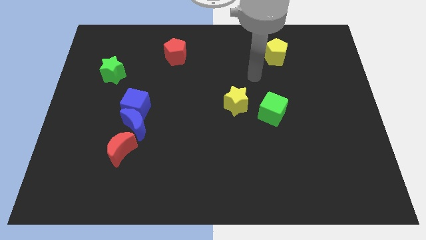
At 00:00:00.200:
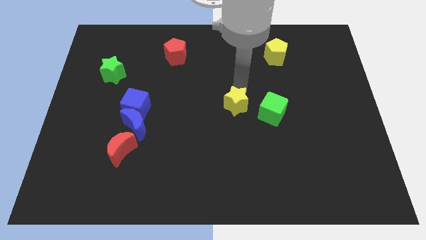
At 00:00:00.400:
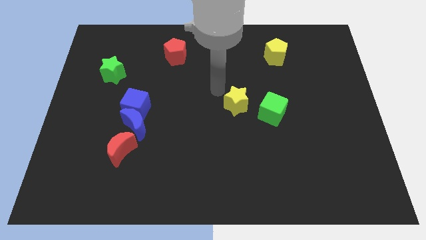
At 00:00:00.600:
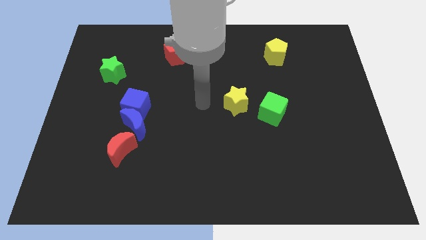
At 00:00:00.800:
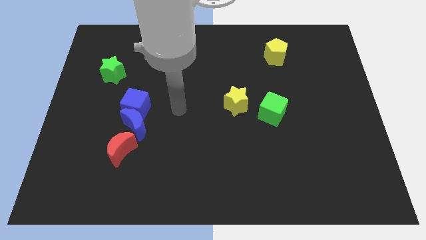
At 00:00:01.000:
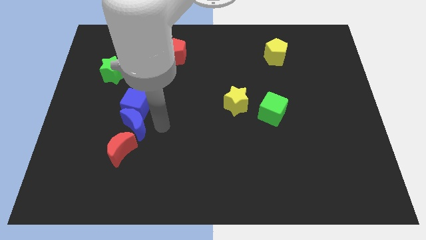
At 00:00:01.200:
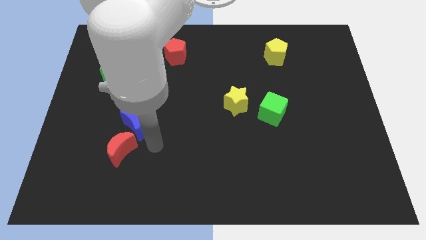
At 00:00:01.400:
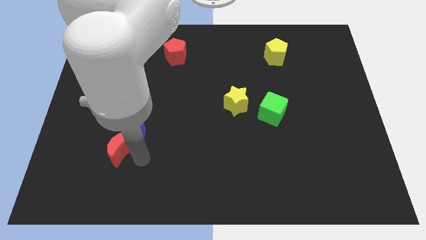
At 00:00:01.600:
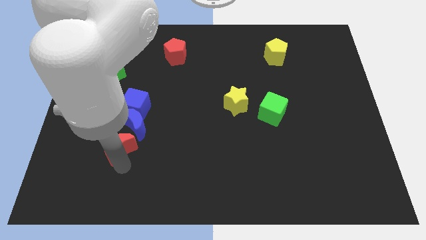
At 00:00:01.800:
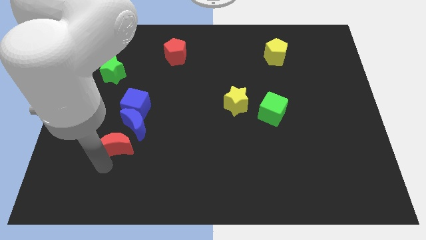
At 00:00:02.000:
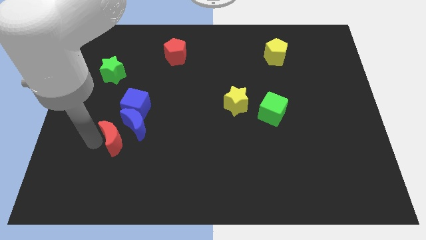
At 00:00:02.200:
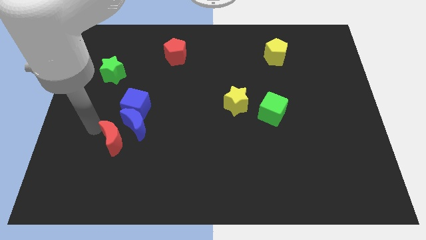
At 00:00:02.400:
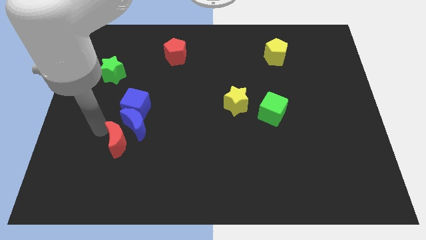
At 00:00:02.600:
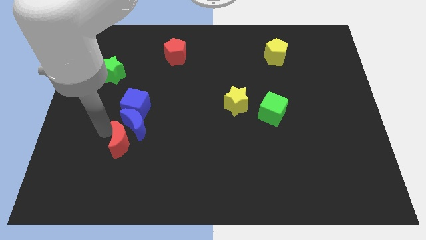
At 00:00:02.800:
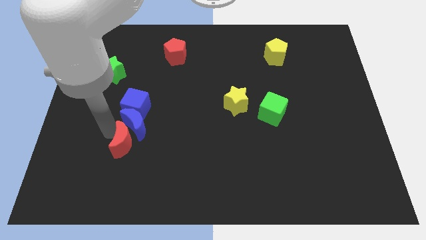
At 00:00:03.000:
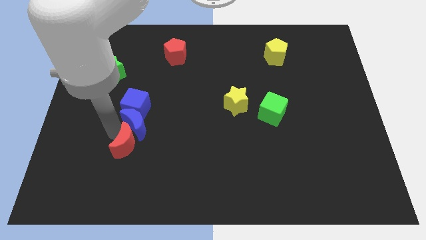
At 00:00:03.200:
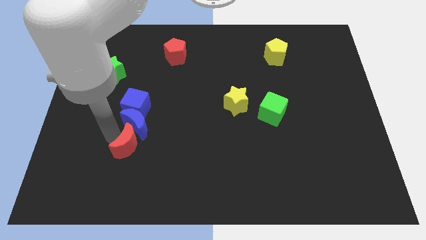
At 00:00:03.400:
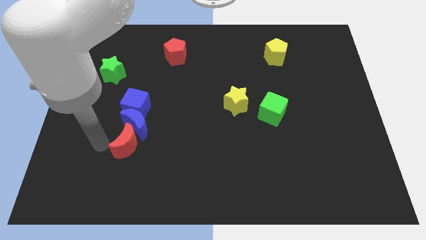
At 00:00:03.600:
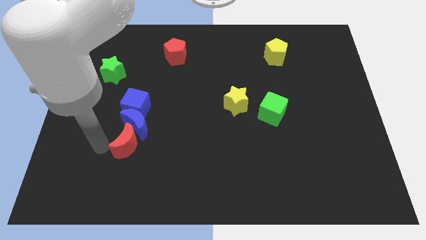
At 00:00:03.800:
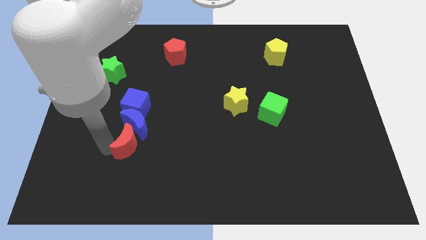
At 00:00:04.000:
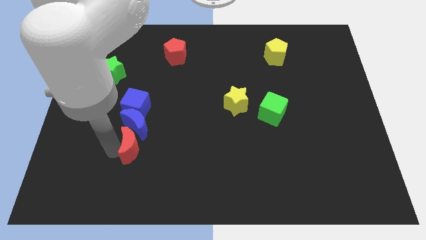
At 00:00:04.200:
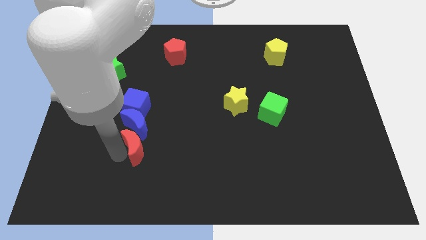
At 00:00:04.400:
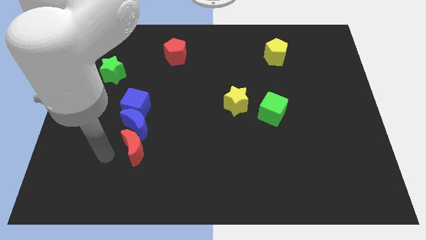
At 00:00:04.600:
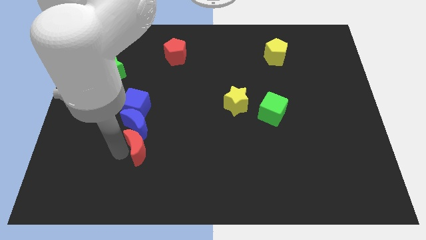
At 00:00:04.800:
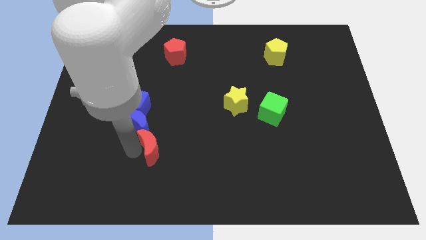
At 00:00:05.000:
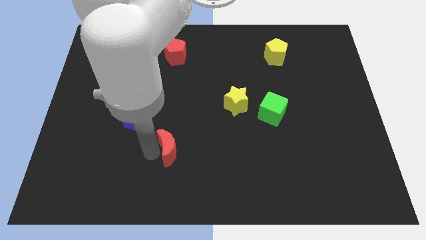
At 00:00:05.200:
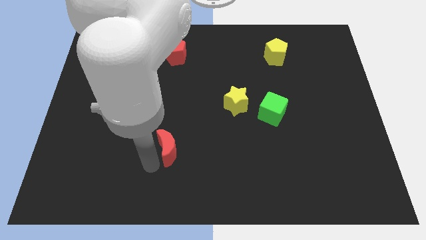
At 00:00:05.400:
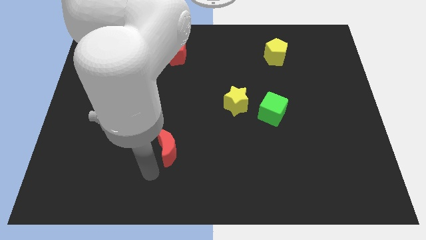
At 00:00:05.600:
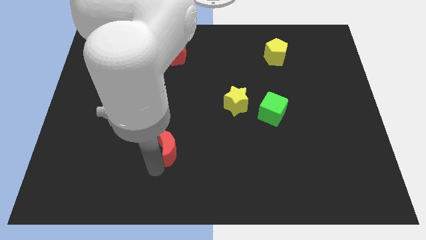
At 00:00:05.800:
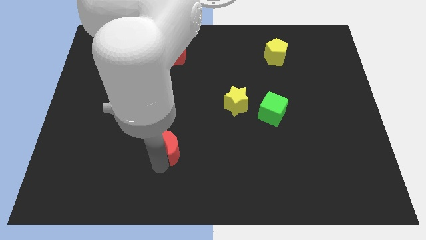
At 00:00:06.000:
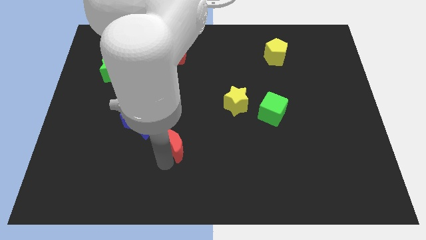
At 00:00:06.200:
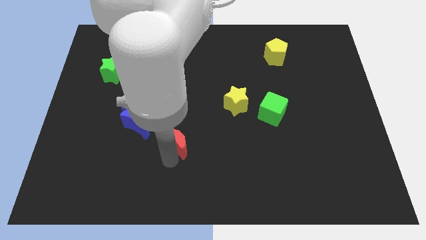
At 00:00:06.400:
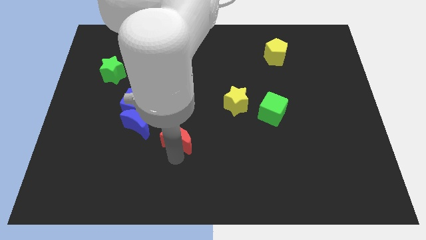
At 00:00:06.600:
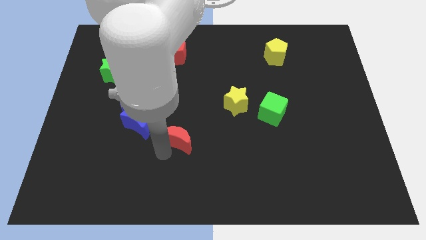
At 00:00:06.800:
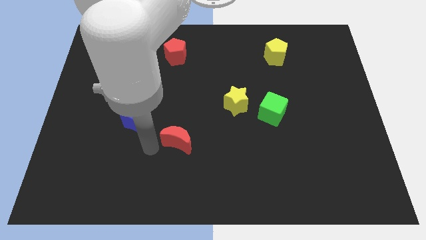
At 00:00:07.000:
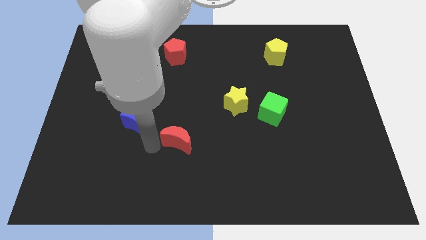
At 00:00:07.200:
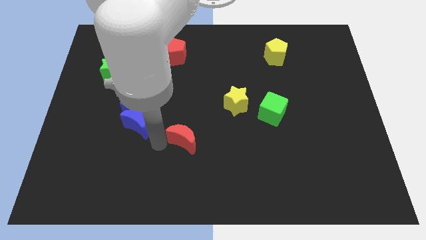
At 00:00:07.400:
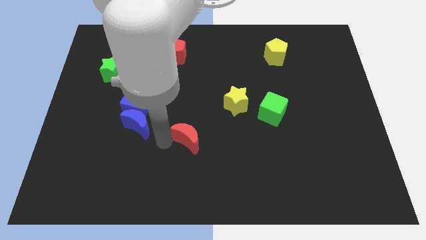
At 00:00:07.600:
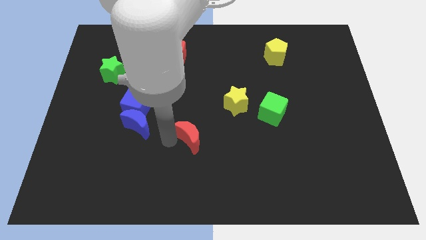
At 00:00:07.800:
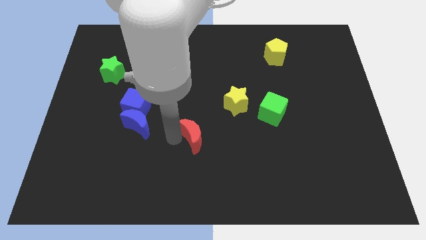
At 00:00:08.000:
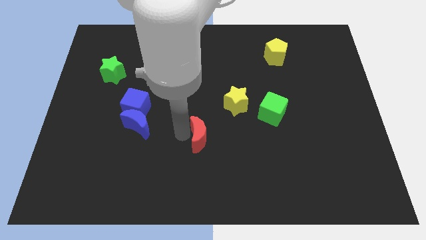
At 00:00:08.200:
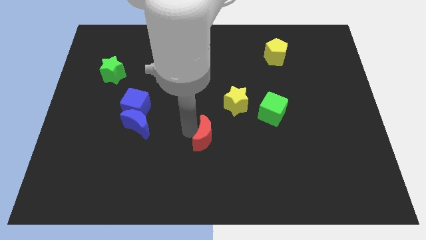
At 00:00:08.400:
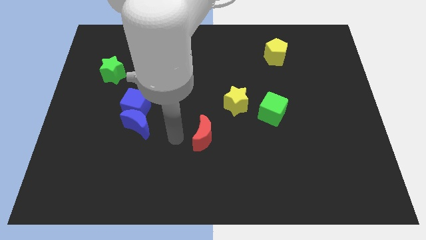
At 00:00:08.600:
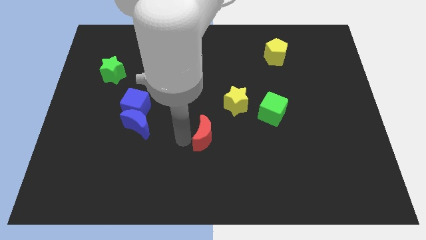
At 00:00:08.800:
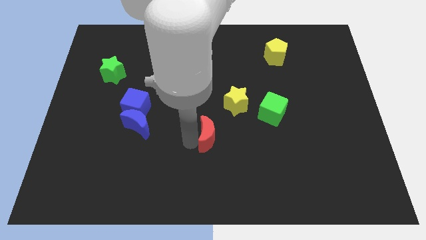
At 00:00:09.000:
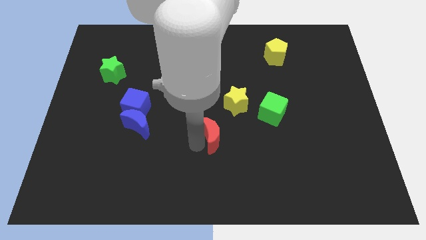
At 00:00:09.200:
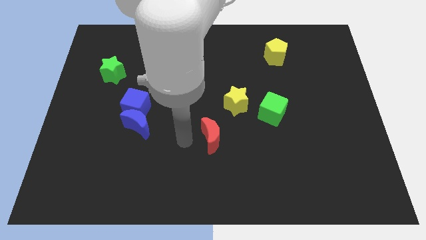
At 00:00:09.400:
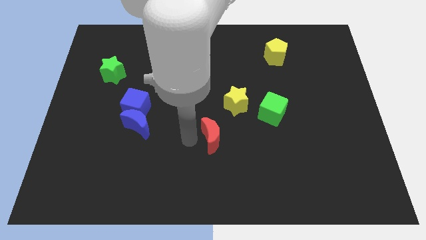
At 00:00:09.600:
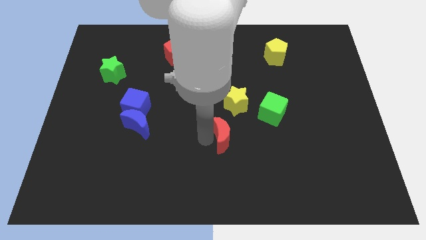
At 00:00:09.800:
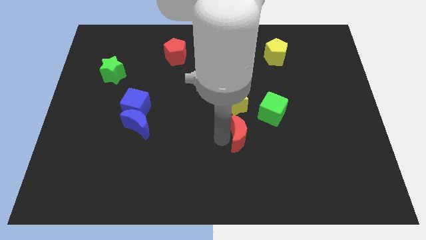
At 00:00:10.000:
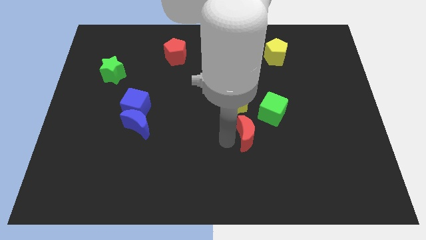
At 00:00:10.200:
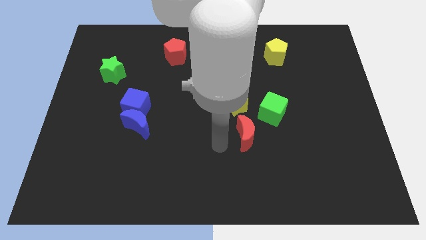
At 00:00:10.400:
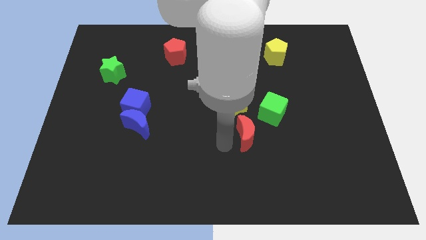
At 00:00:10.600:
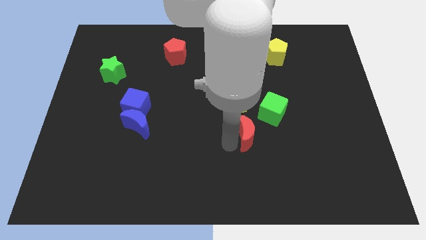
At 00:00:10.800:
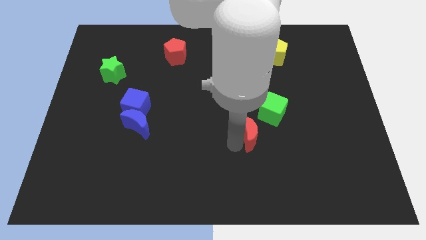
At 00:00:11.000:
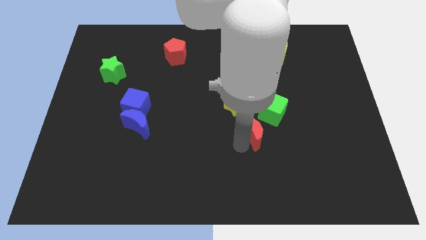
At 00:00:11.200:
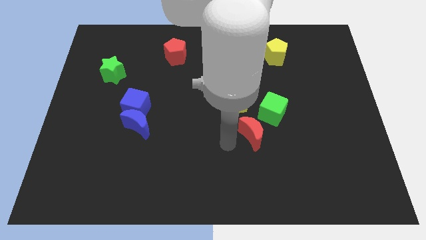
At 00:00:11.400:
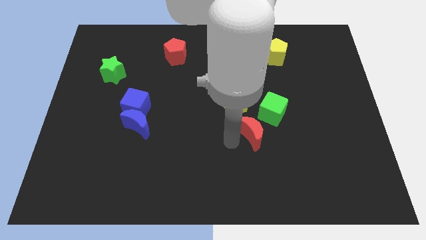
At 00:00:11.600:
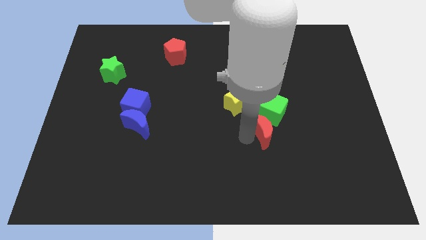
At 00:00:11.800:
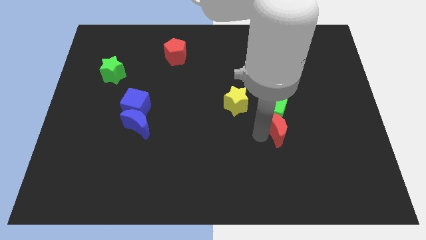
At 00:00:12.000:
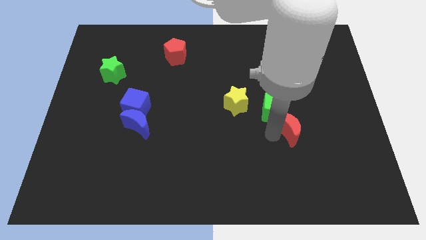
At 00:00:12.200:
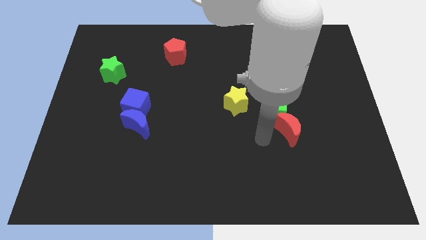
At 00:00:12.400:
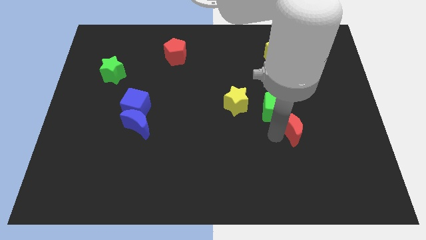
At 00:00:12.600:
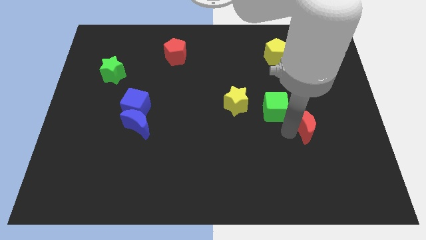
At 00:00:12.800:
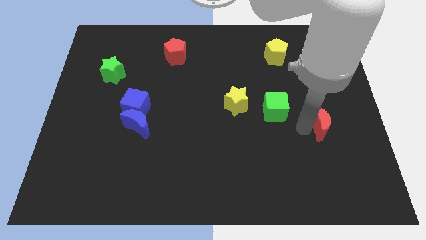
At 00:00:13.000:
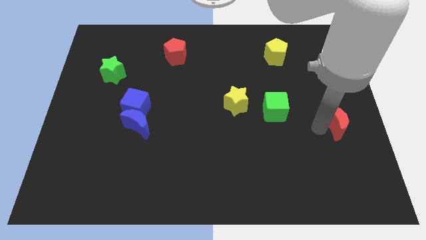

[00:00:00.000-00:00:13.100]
push the red moon to the center right
